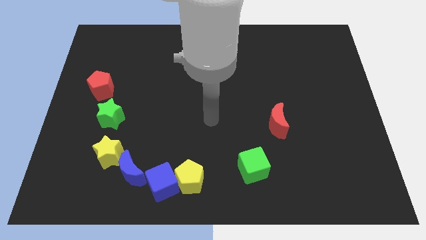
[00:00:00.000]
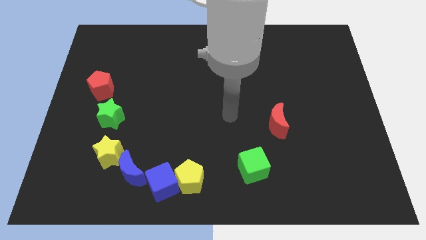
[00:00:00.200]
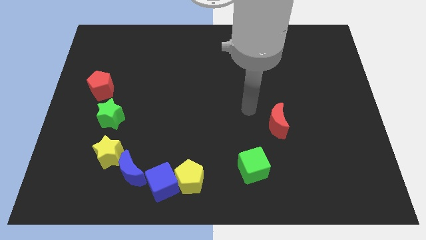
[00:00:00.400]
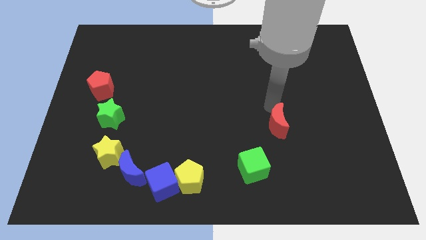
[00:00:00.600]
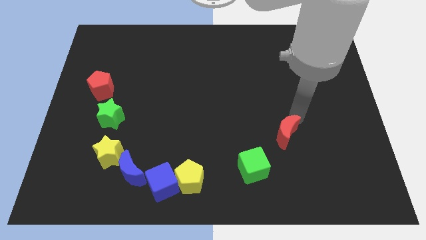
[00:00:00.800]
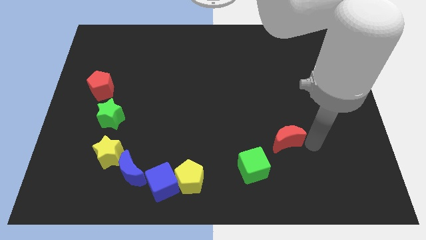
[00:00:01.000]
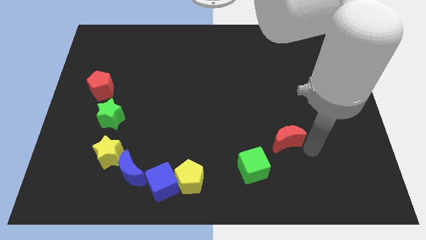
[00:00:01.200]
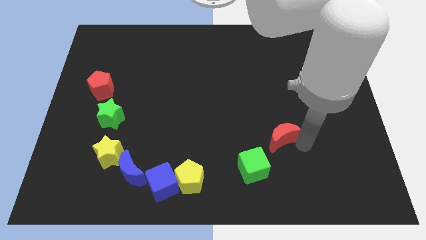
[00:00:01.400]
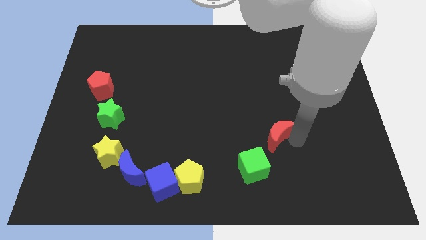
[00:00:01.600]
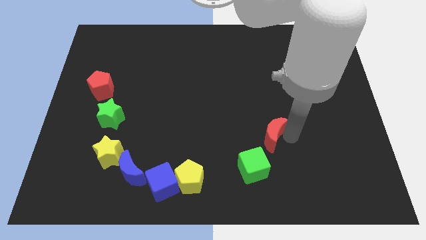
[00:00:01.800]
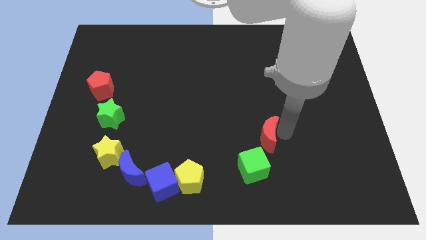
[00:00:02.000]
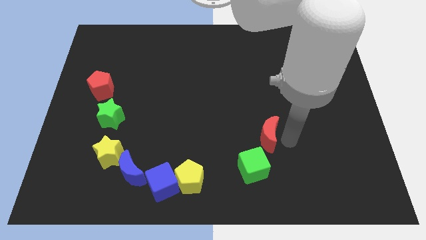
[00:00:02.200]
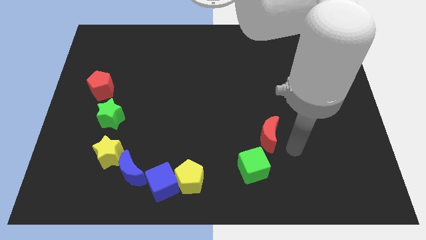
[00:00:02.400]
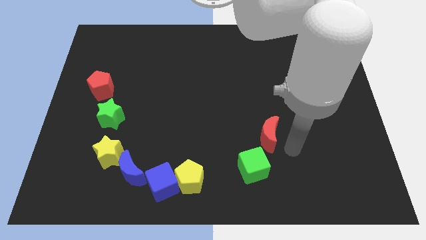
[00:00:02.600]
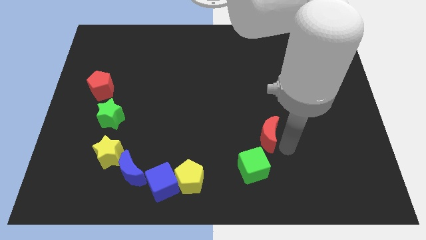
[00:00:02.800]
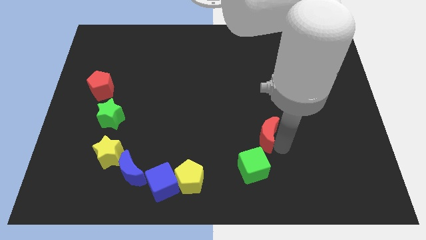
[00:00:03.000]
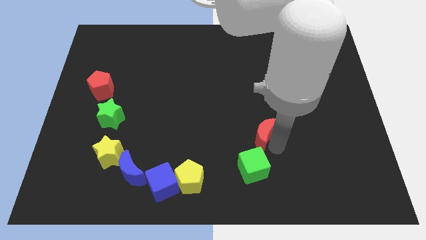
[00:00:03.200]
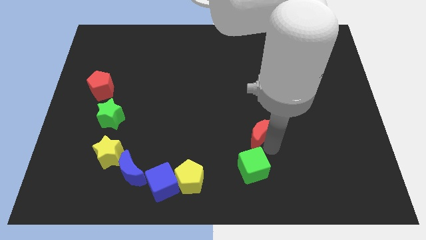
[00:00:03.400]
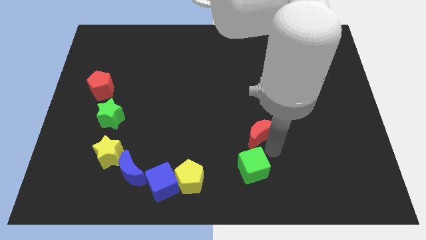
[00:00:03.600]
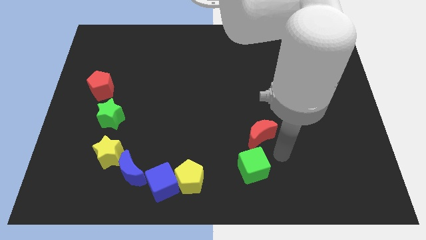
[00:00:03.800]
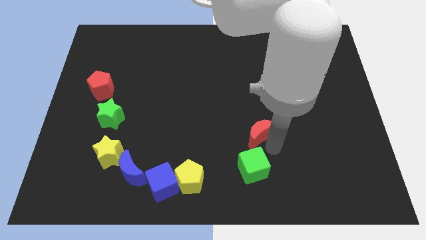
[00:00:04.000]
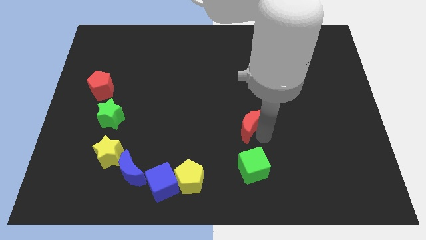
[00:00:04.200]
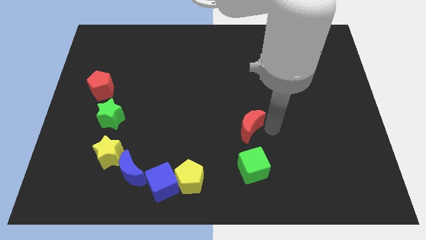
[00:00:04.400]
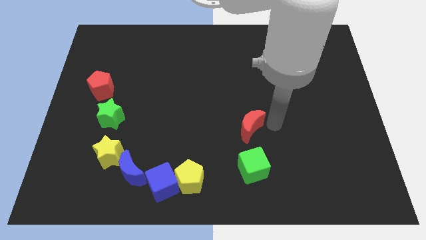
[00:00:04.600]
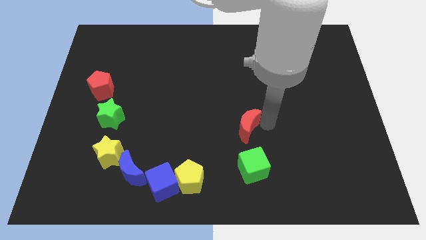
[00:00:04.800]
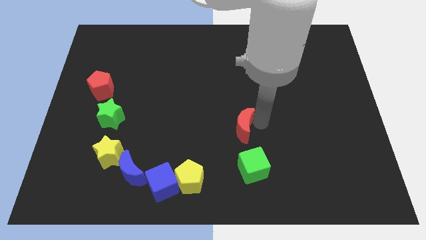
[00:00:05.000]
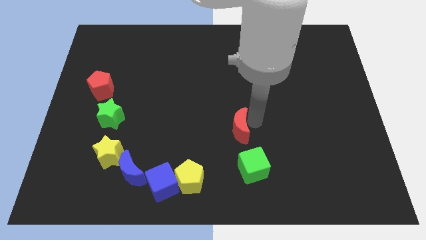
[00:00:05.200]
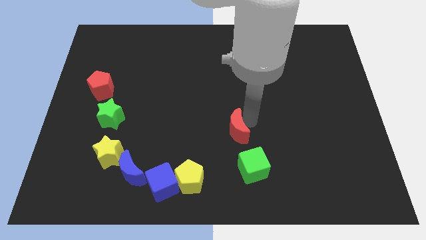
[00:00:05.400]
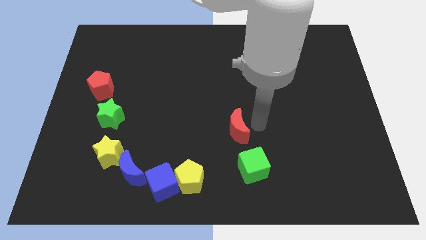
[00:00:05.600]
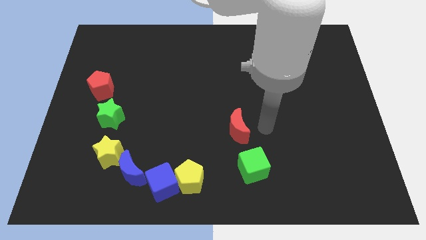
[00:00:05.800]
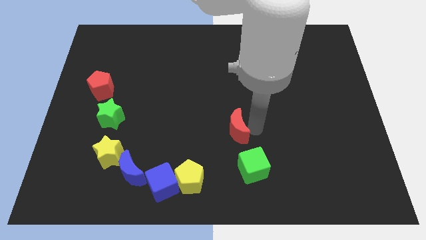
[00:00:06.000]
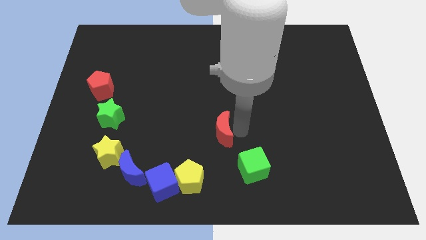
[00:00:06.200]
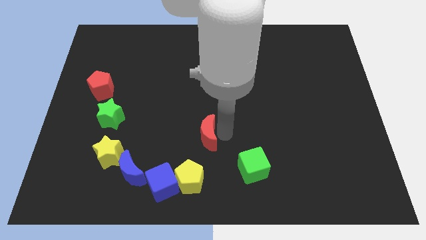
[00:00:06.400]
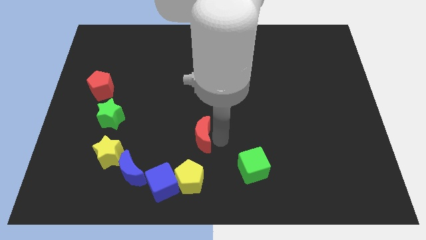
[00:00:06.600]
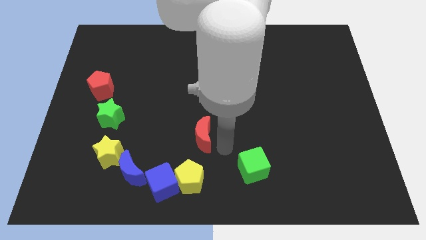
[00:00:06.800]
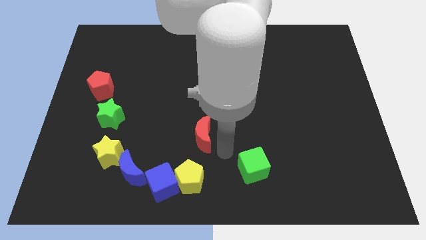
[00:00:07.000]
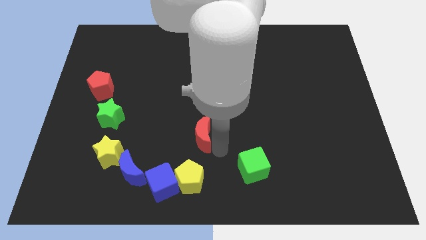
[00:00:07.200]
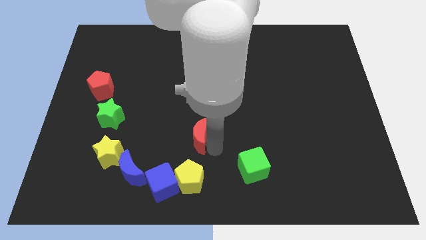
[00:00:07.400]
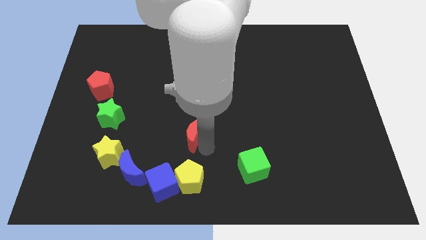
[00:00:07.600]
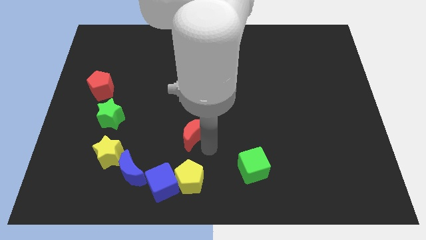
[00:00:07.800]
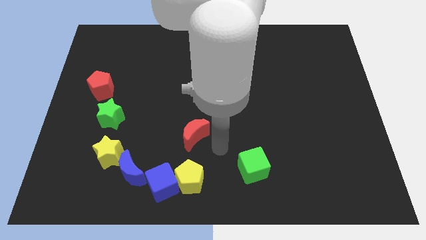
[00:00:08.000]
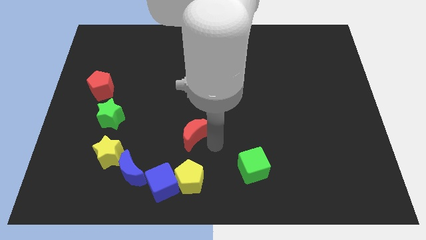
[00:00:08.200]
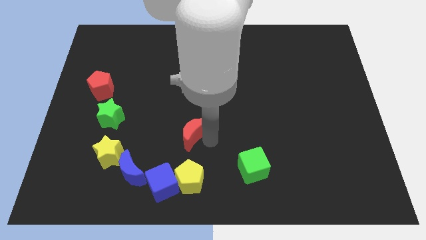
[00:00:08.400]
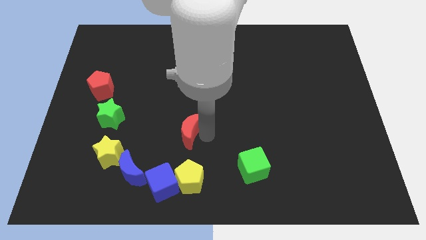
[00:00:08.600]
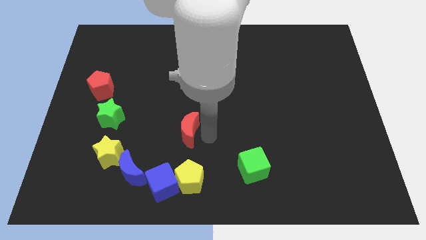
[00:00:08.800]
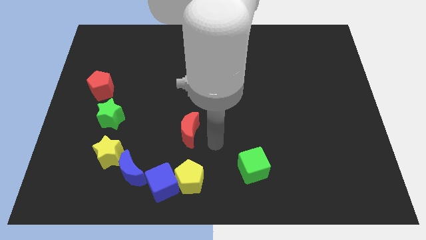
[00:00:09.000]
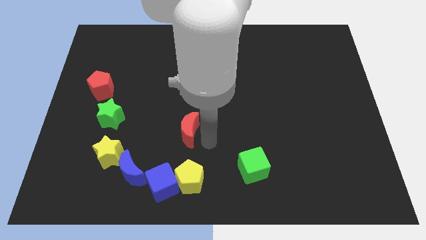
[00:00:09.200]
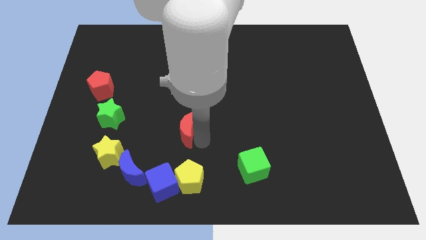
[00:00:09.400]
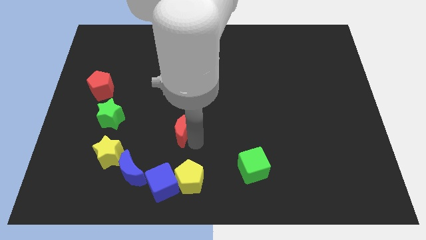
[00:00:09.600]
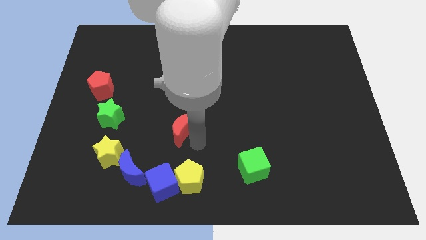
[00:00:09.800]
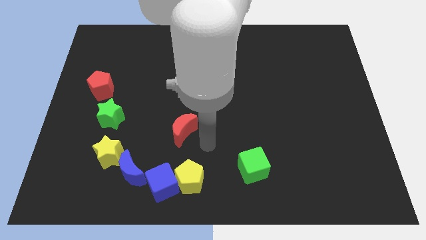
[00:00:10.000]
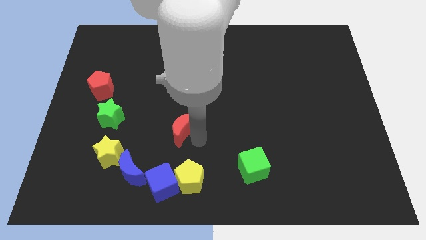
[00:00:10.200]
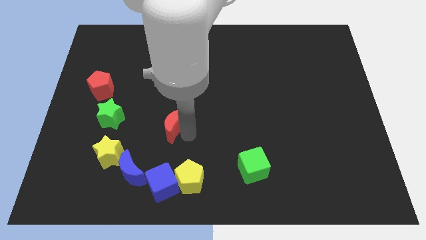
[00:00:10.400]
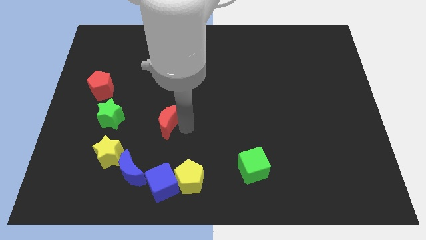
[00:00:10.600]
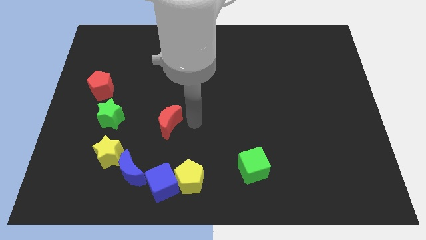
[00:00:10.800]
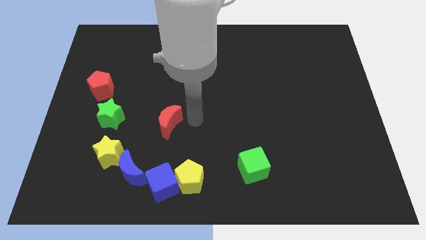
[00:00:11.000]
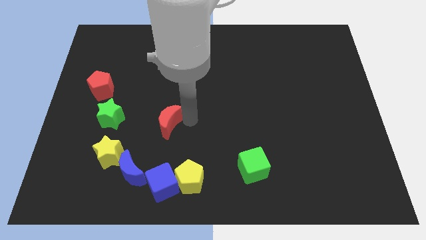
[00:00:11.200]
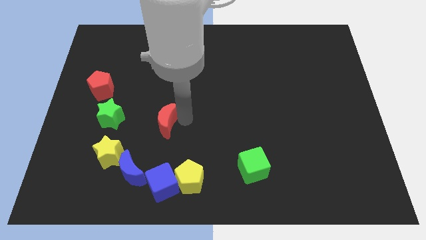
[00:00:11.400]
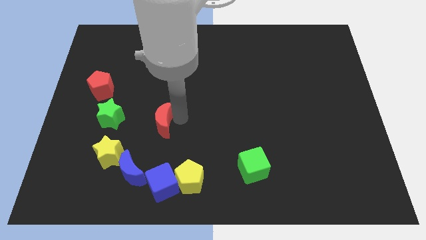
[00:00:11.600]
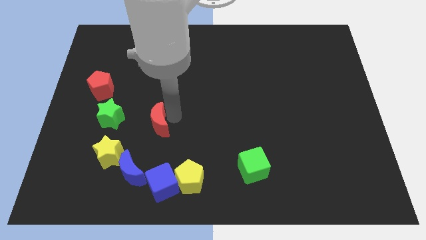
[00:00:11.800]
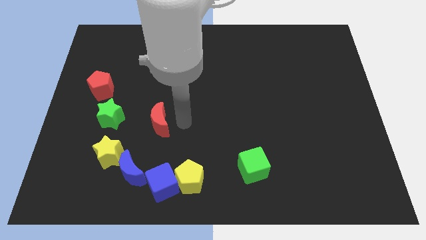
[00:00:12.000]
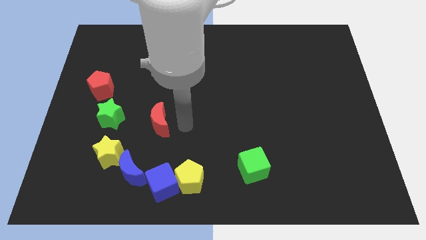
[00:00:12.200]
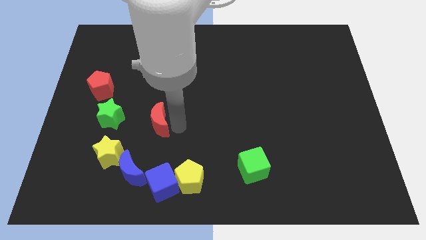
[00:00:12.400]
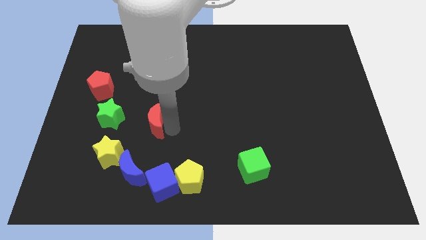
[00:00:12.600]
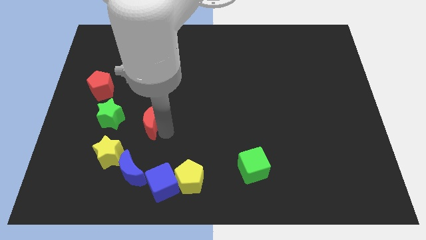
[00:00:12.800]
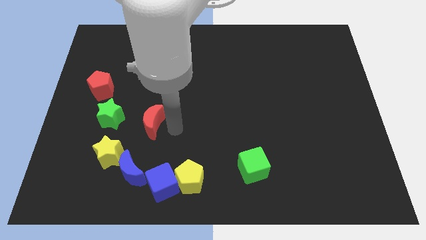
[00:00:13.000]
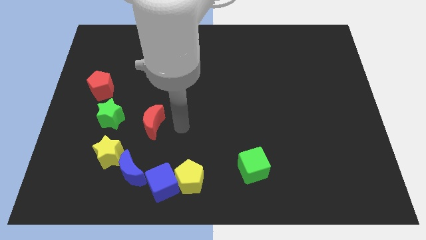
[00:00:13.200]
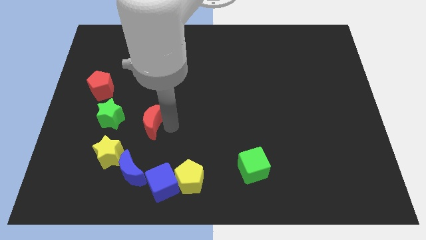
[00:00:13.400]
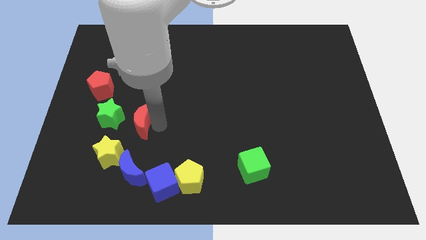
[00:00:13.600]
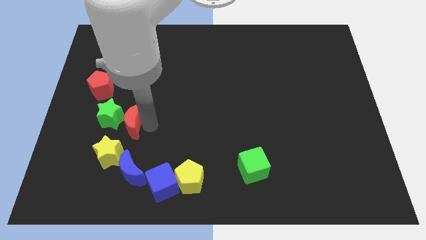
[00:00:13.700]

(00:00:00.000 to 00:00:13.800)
push the red moon towards the green star

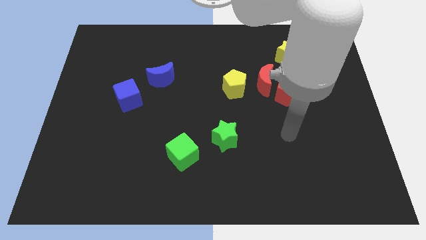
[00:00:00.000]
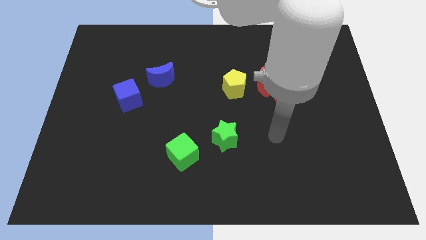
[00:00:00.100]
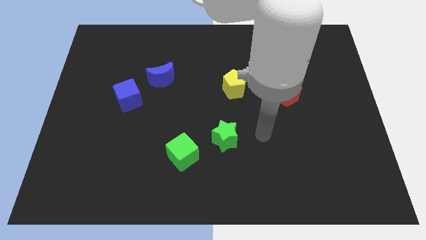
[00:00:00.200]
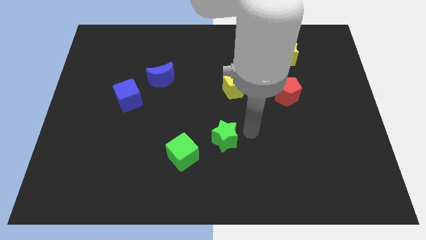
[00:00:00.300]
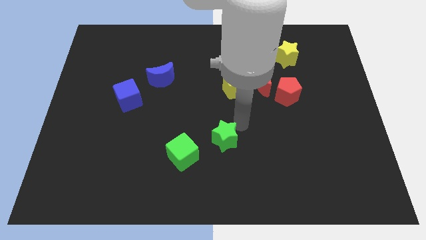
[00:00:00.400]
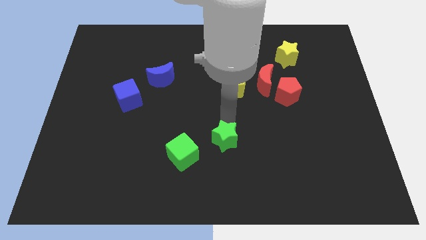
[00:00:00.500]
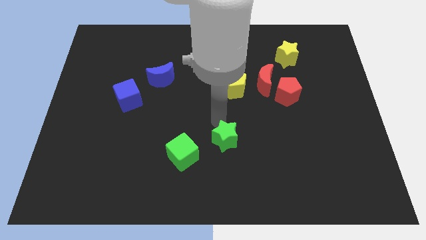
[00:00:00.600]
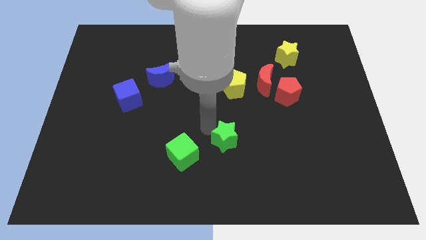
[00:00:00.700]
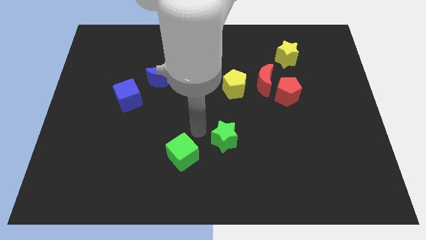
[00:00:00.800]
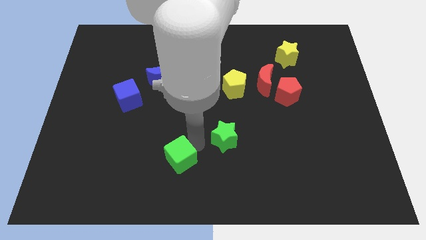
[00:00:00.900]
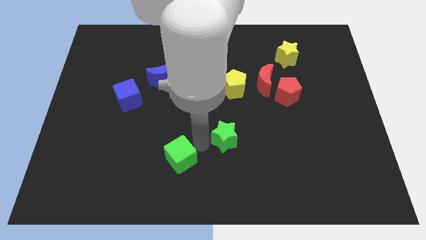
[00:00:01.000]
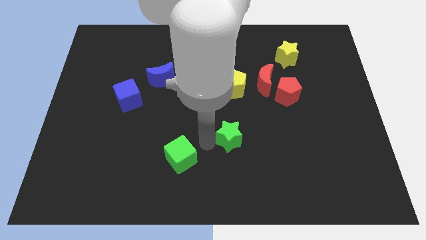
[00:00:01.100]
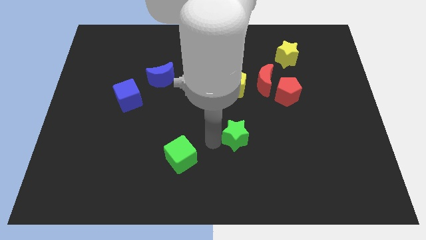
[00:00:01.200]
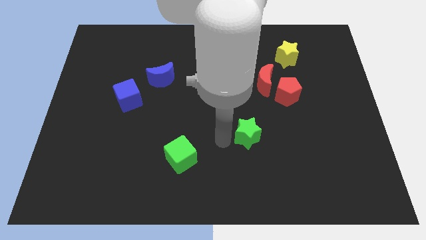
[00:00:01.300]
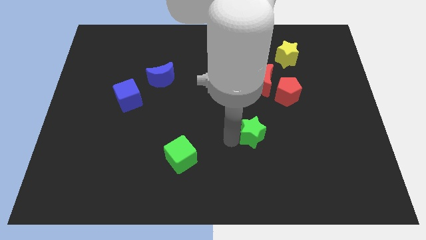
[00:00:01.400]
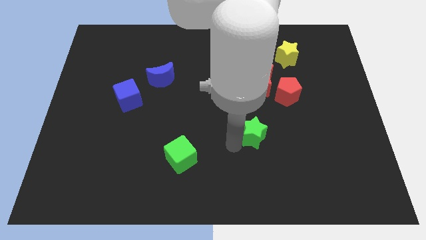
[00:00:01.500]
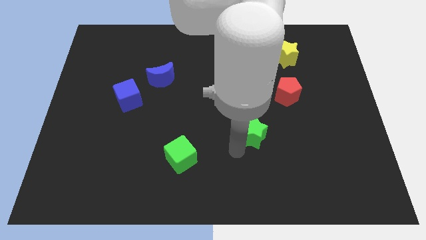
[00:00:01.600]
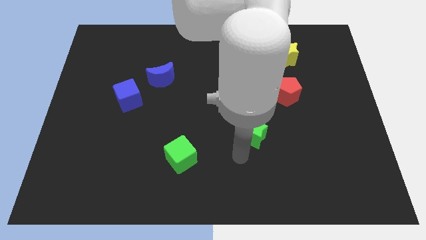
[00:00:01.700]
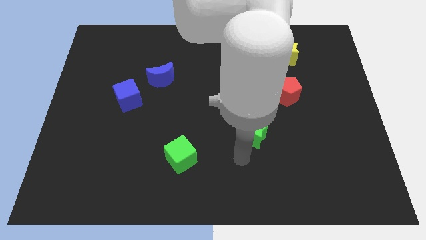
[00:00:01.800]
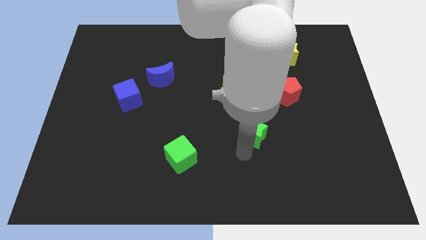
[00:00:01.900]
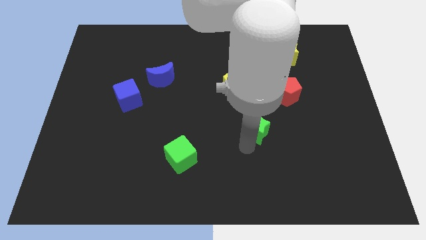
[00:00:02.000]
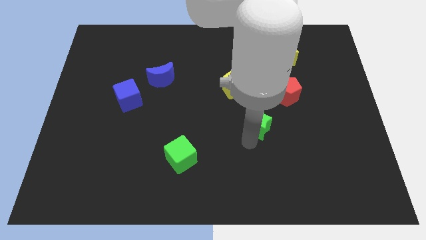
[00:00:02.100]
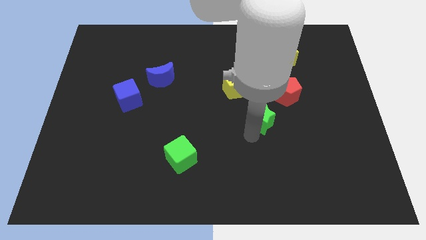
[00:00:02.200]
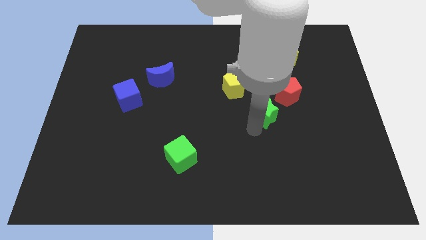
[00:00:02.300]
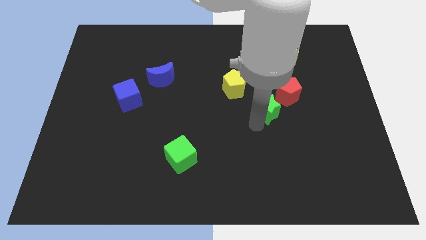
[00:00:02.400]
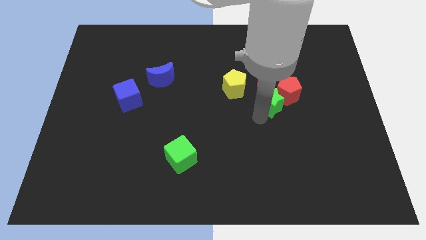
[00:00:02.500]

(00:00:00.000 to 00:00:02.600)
move the green star to the red pentagon
